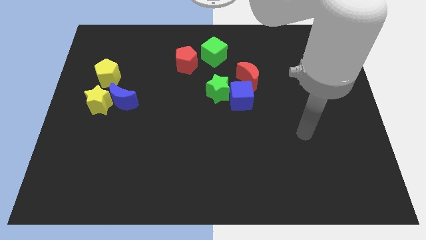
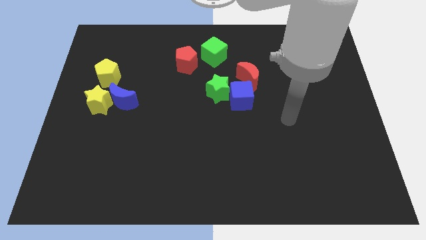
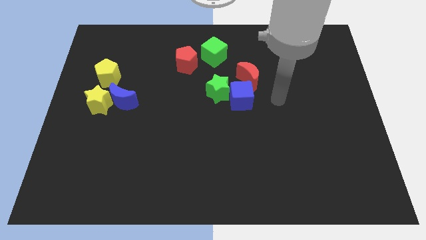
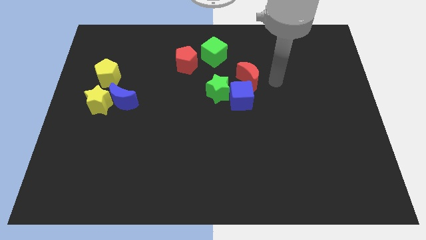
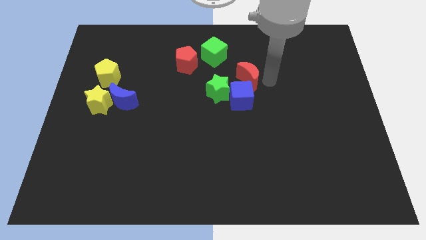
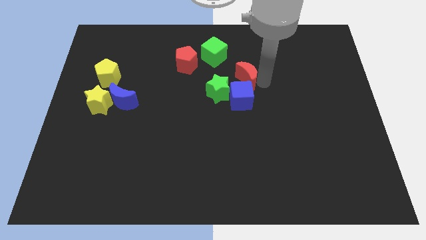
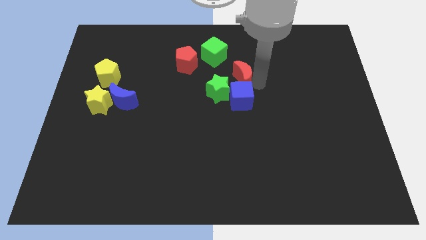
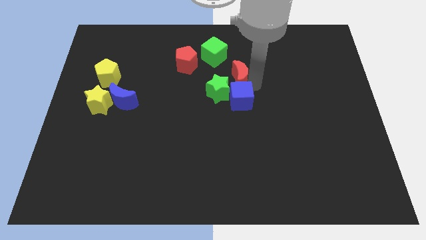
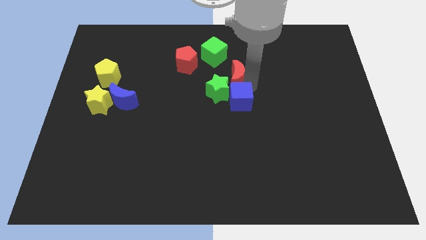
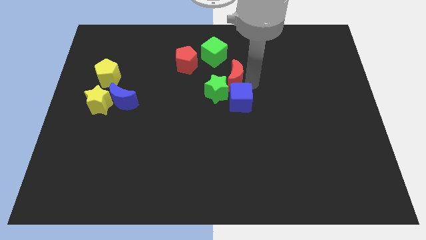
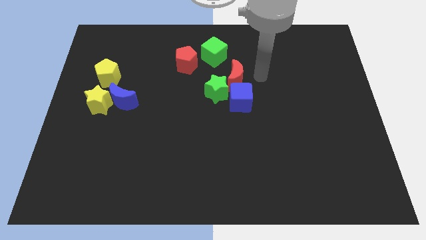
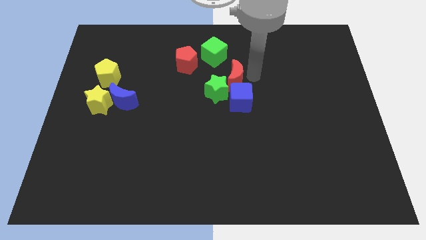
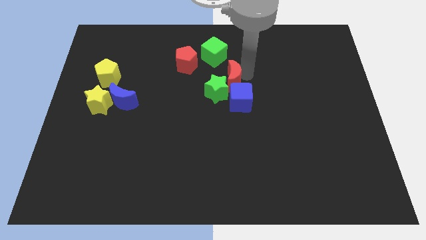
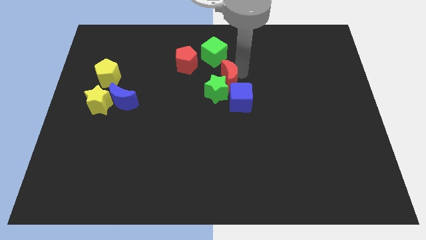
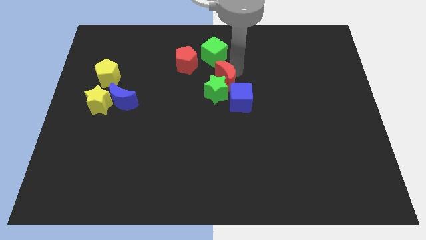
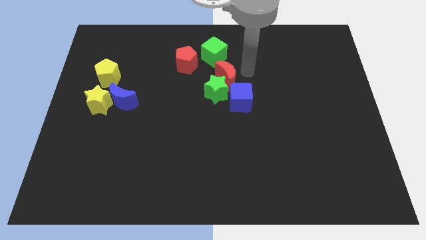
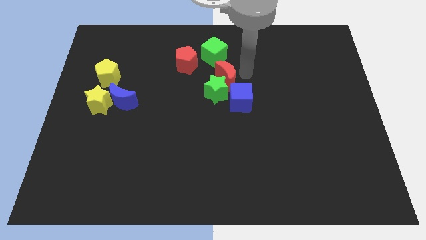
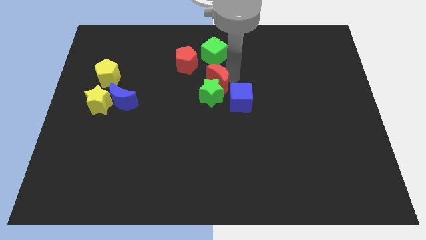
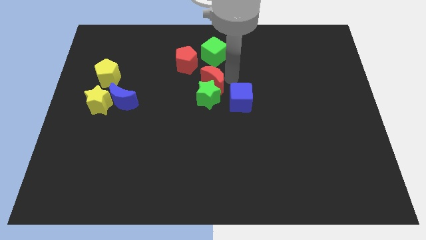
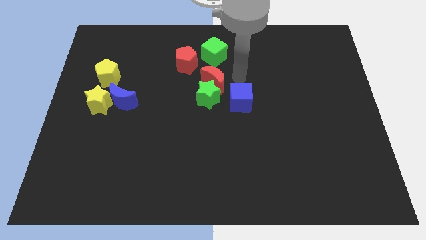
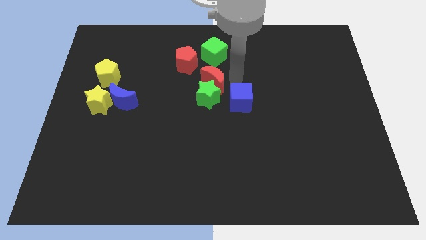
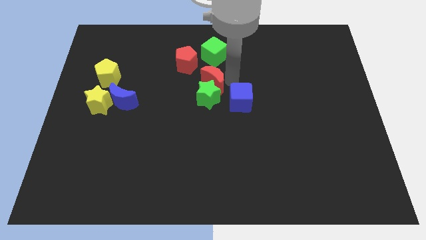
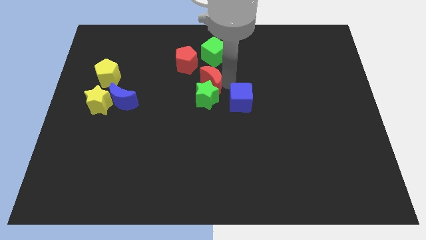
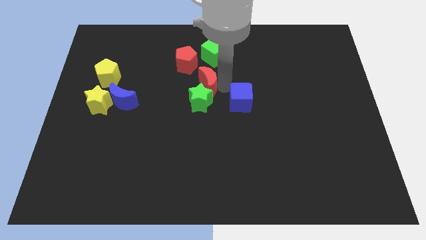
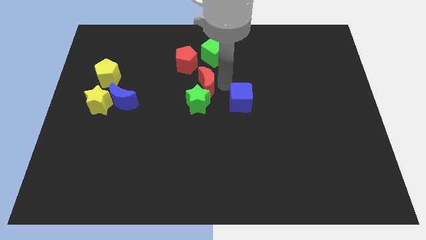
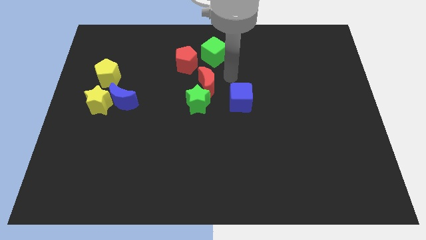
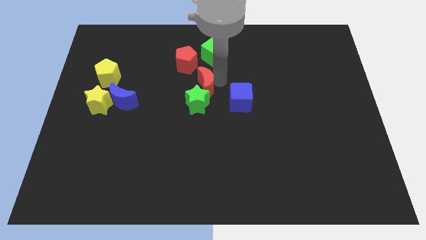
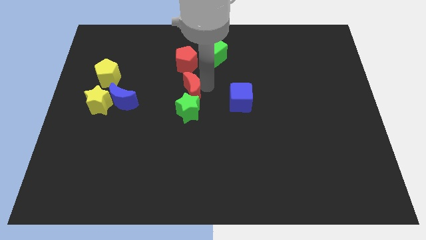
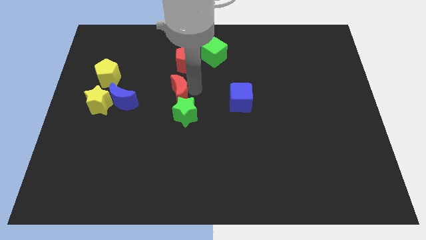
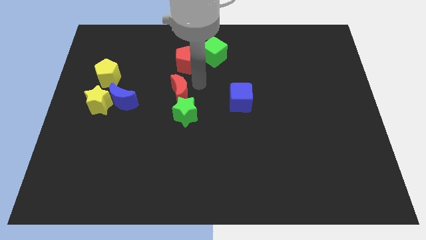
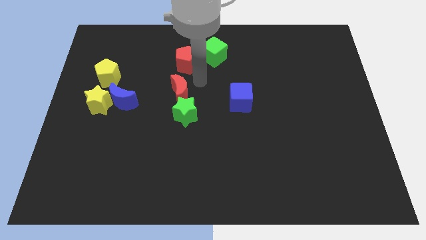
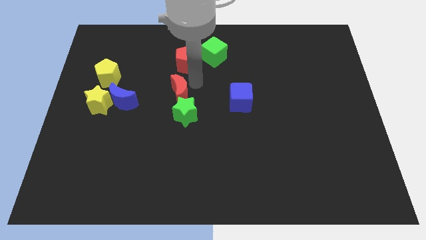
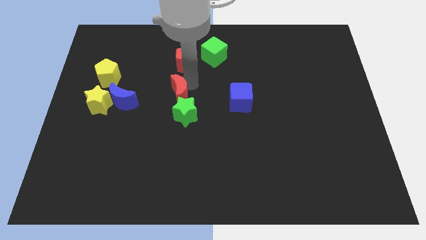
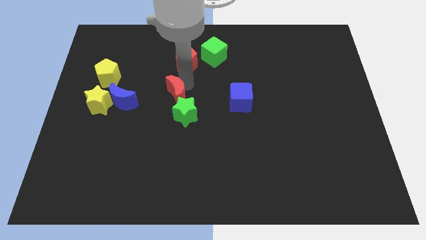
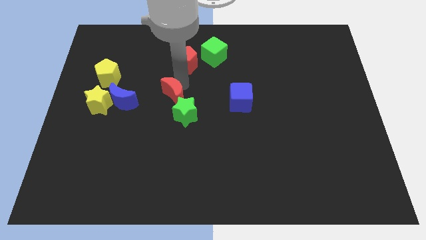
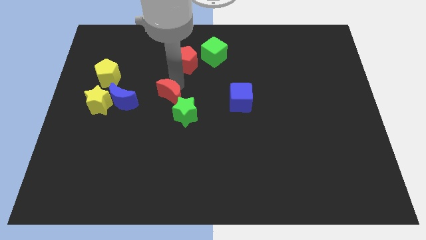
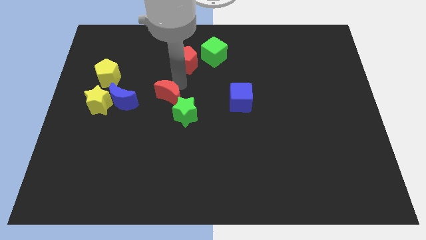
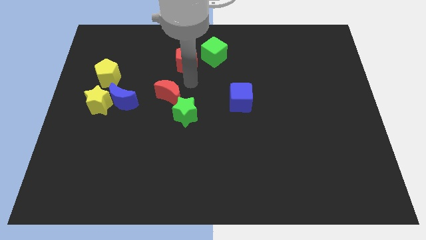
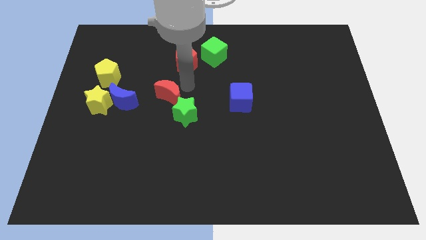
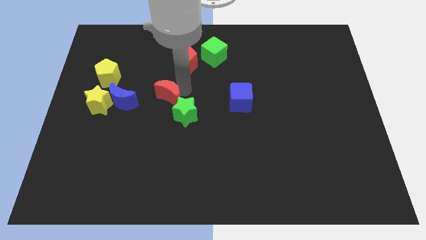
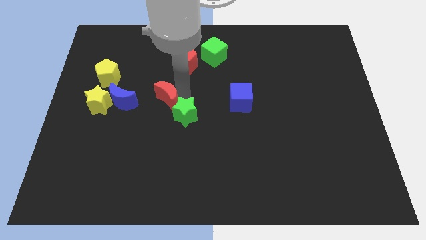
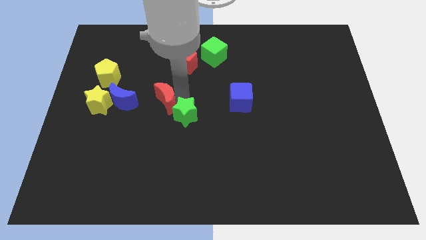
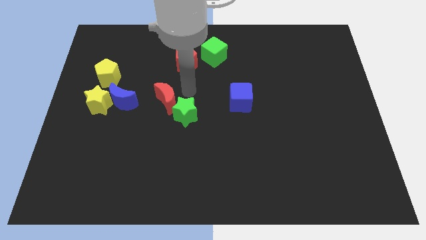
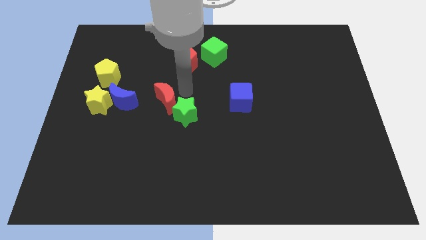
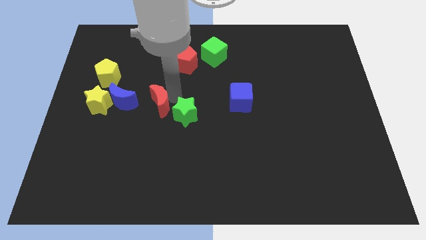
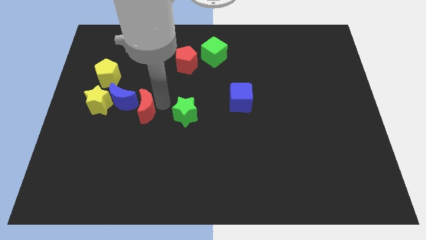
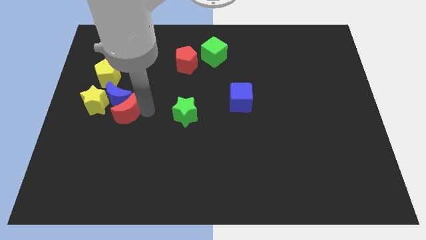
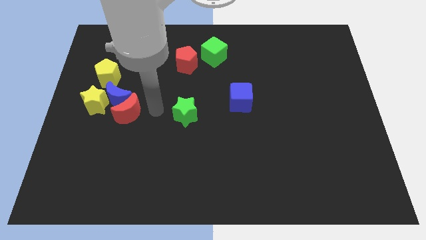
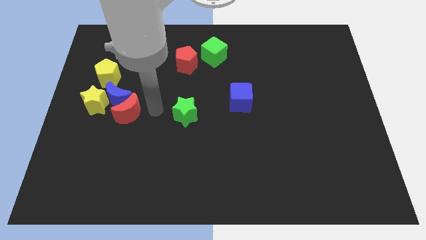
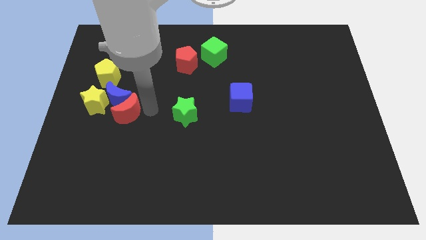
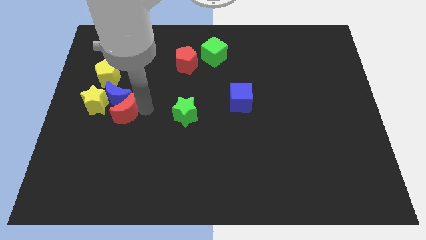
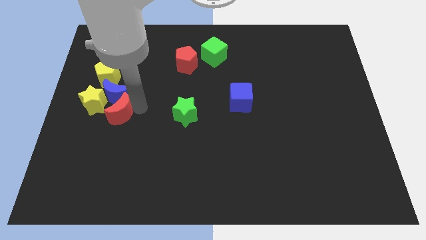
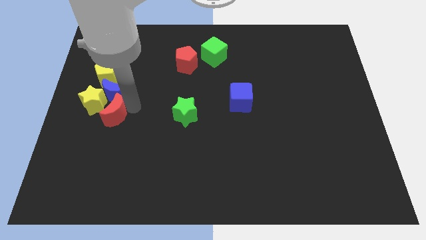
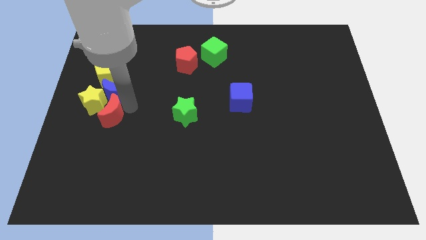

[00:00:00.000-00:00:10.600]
slide the red moon towards the yellow star

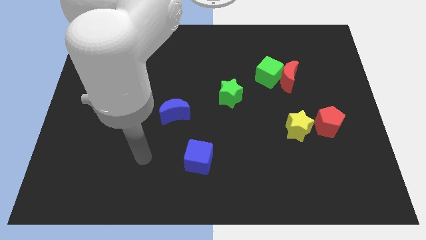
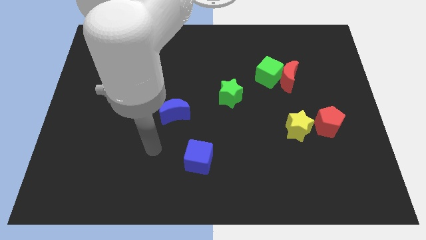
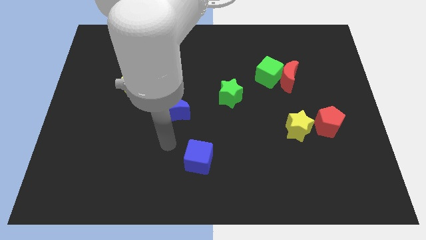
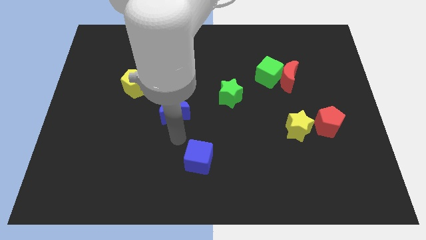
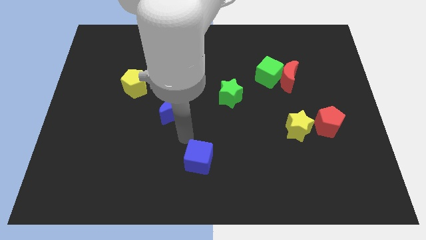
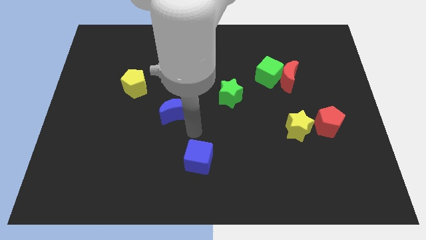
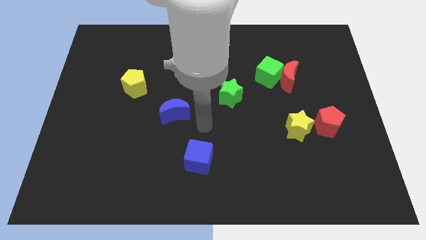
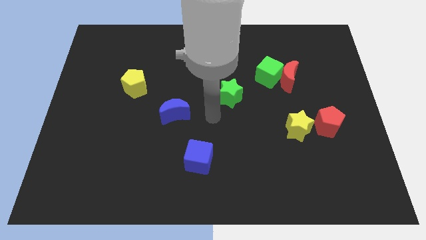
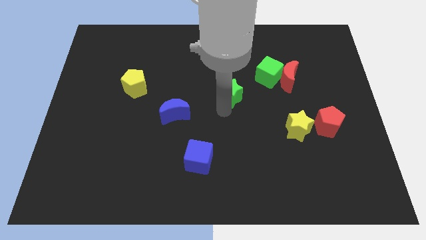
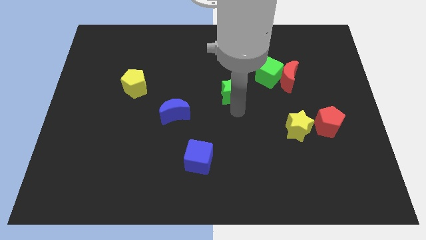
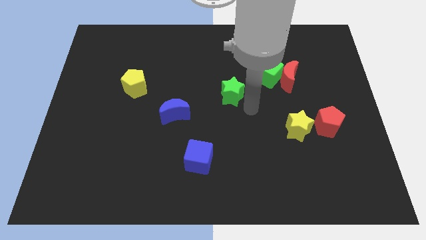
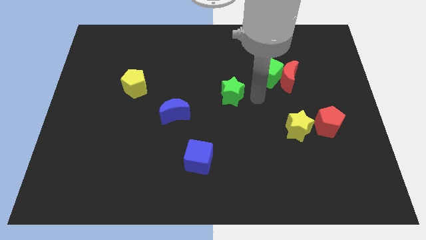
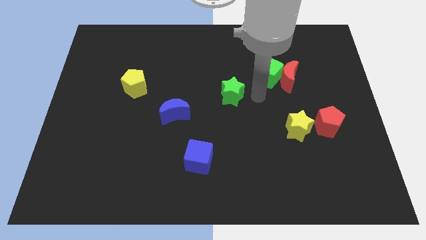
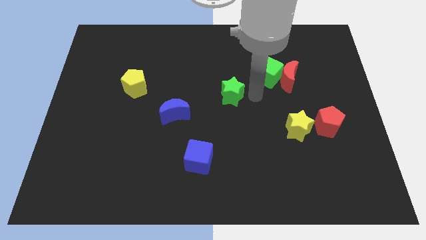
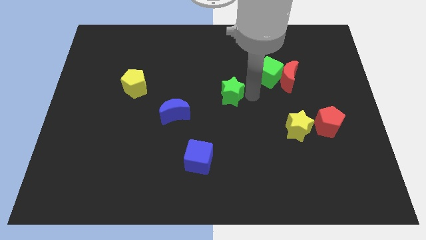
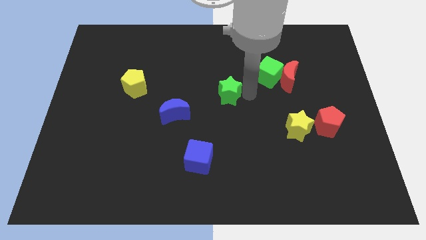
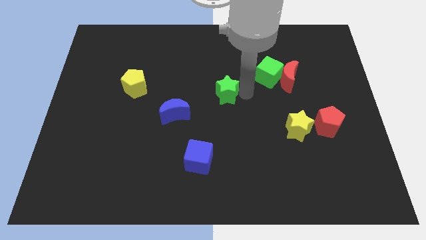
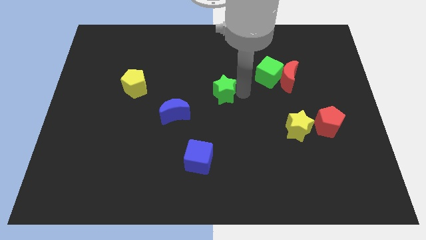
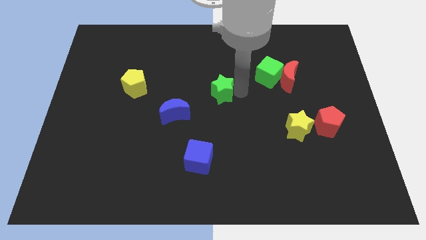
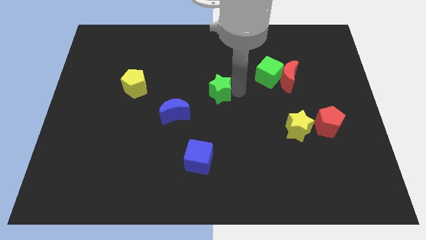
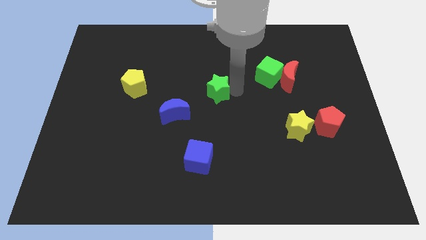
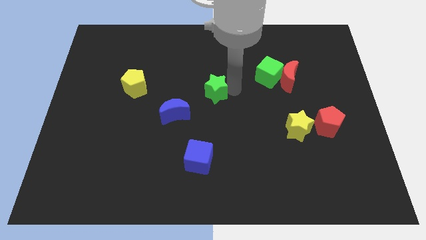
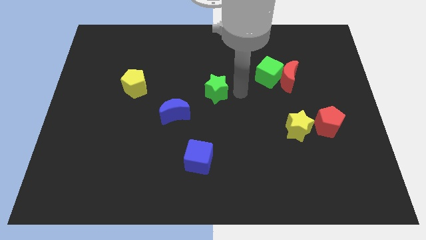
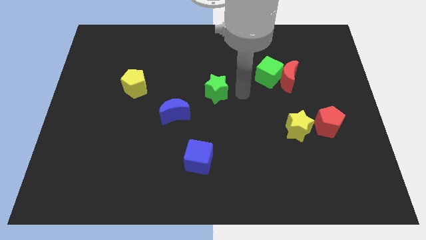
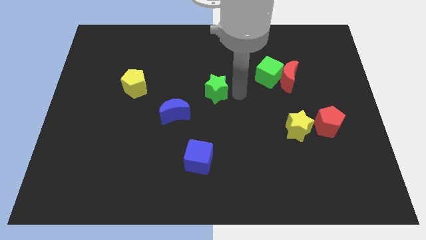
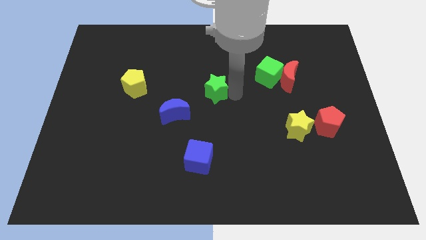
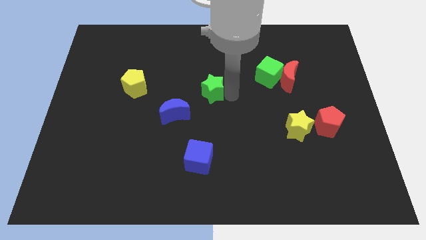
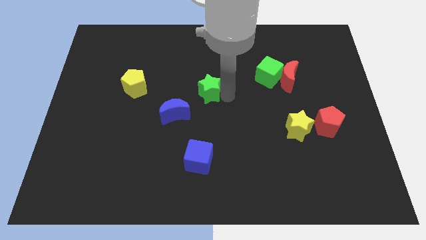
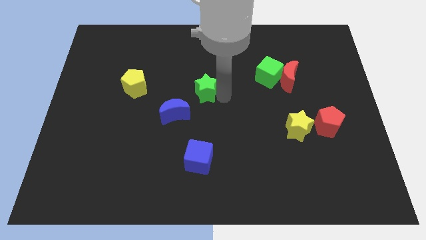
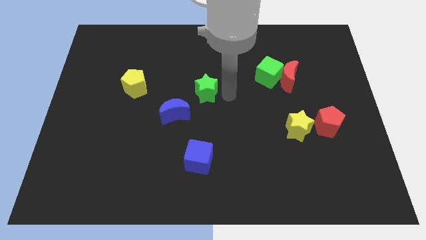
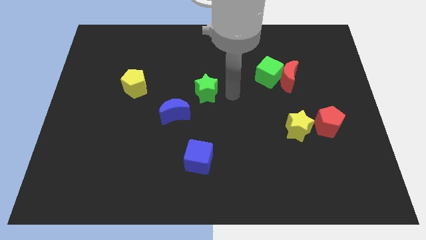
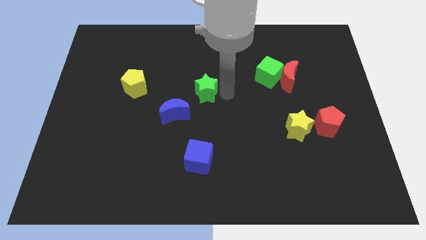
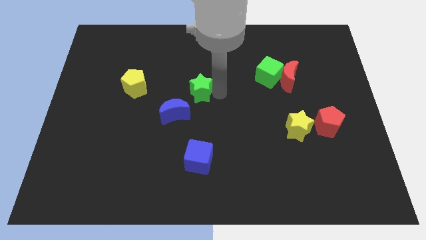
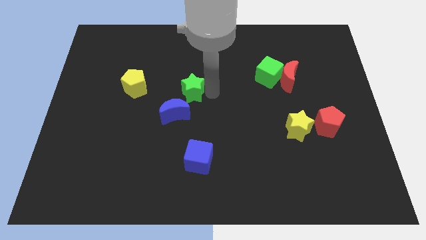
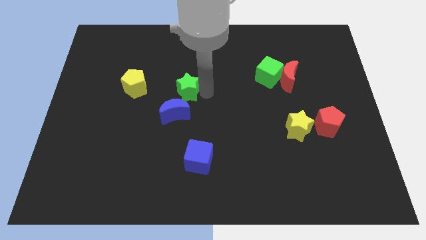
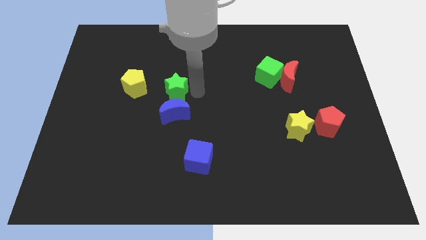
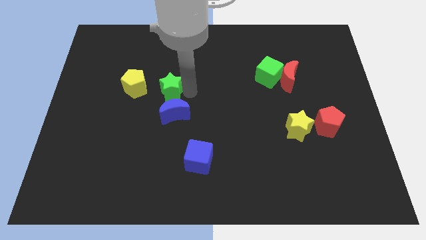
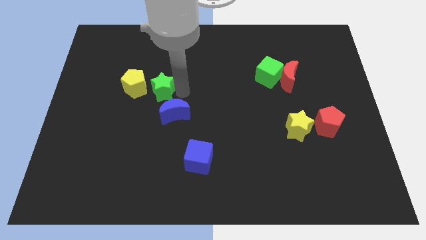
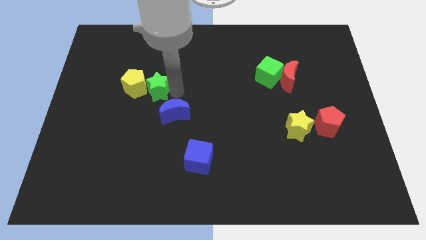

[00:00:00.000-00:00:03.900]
put the green star to the yellow pentagon
